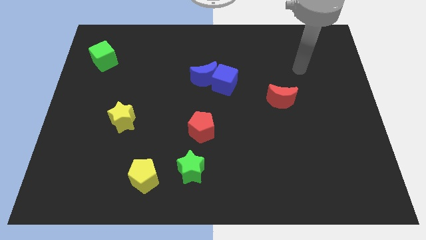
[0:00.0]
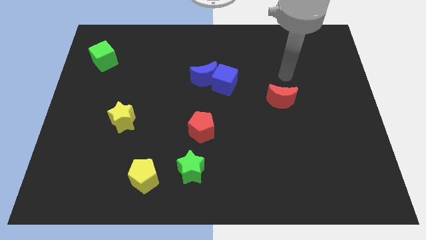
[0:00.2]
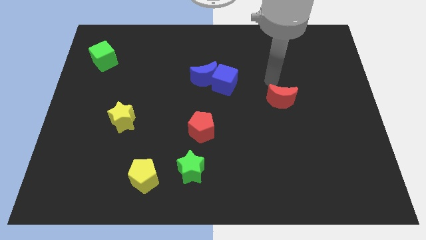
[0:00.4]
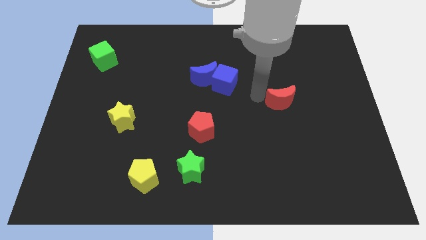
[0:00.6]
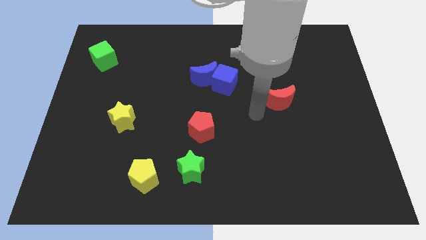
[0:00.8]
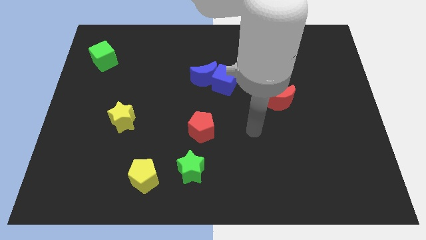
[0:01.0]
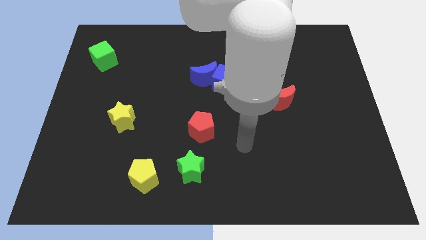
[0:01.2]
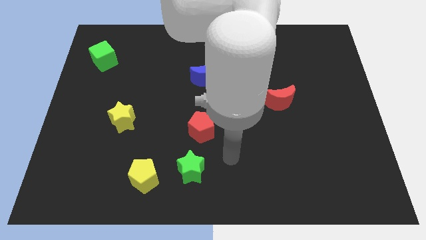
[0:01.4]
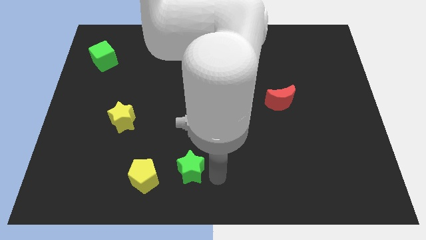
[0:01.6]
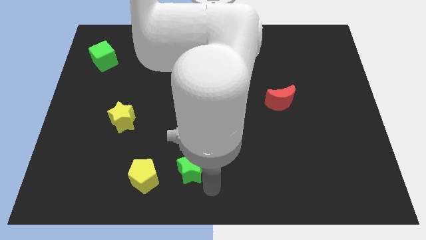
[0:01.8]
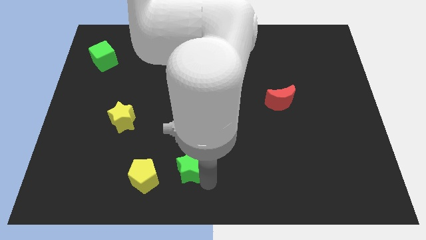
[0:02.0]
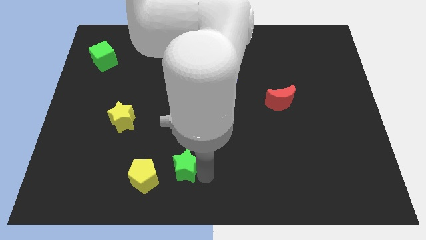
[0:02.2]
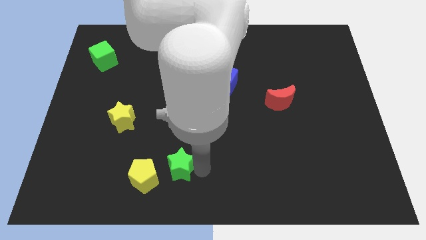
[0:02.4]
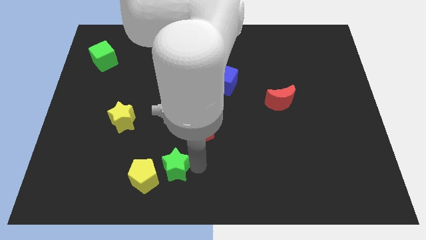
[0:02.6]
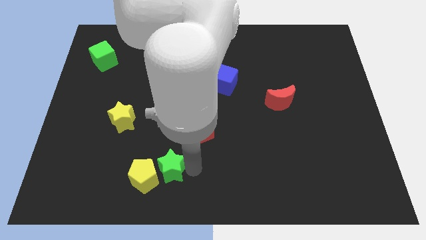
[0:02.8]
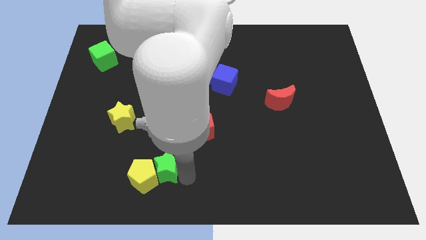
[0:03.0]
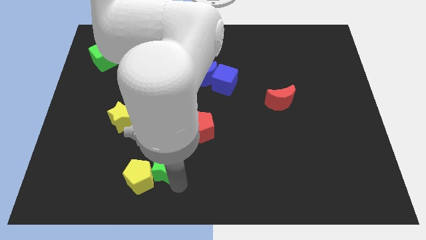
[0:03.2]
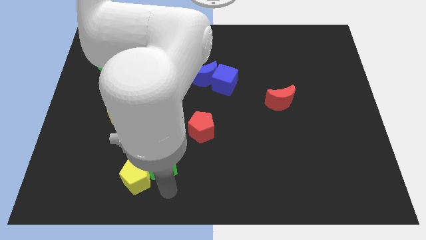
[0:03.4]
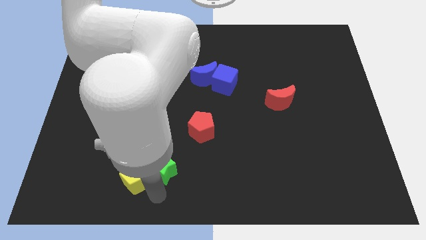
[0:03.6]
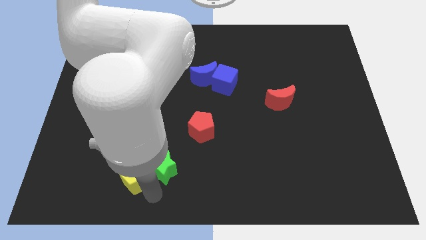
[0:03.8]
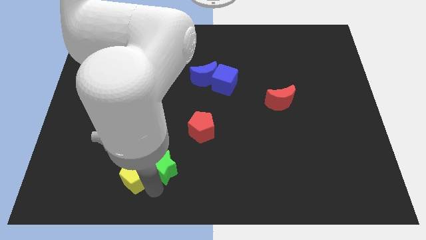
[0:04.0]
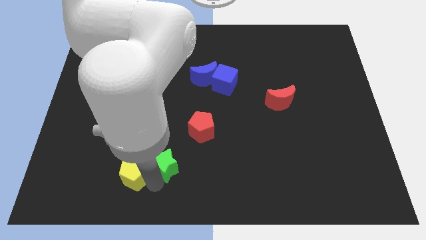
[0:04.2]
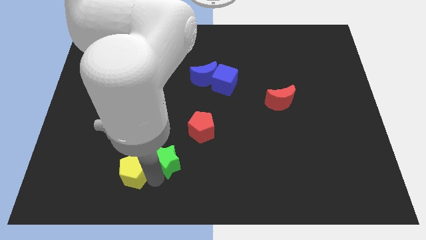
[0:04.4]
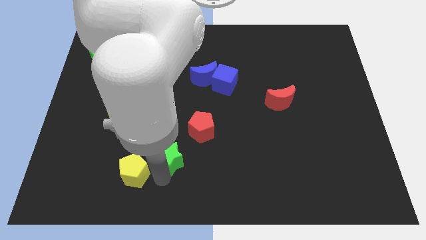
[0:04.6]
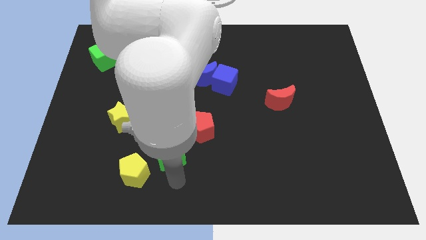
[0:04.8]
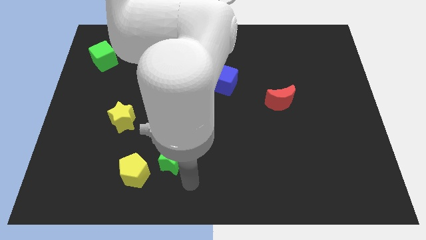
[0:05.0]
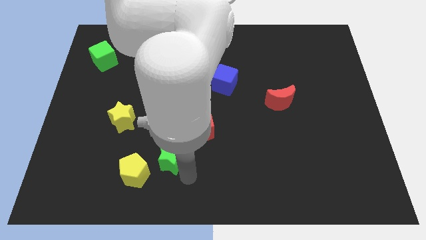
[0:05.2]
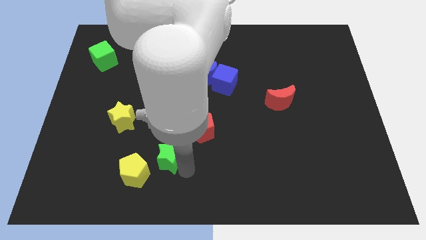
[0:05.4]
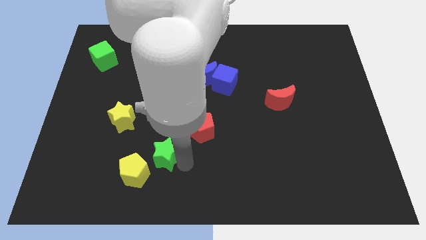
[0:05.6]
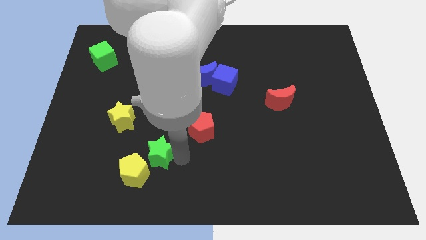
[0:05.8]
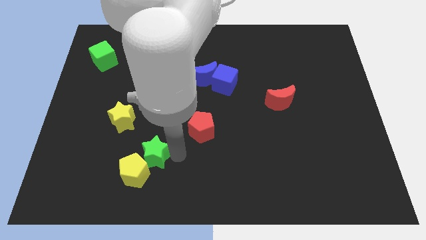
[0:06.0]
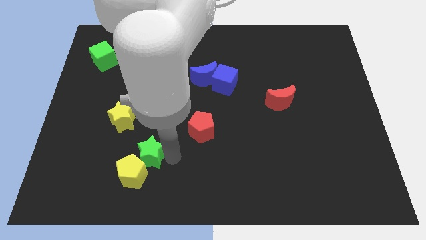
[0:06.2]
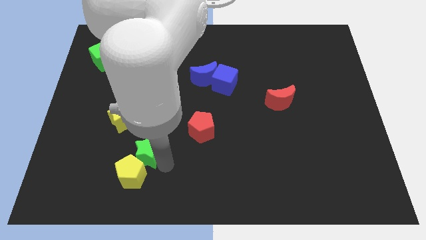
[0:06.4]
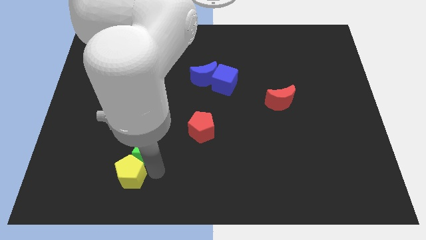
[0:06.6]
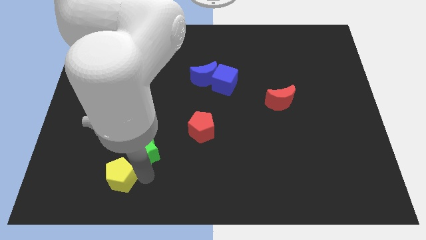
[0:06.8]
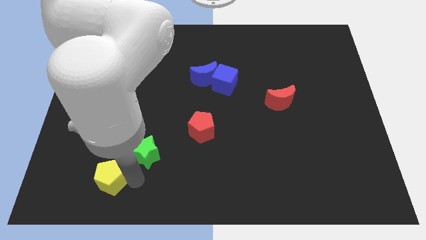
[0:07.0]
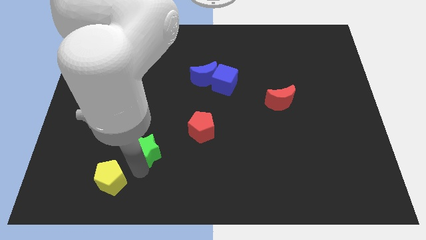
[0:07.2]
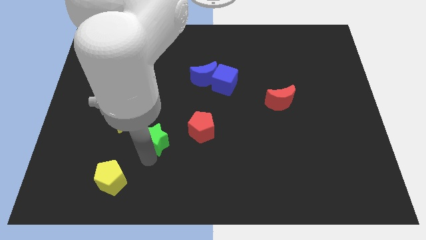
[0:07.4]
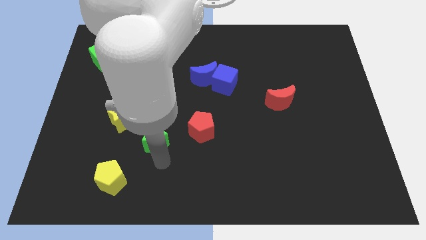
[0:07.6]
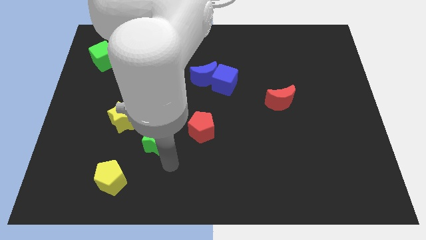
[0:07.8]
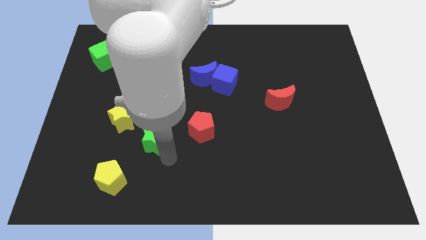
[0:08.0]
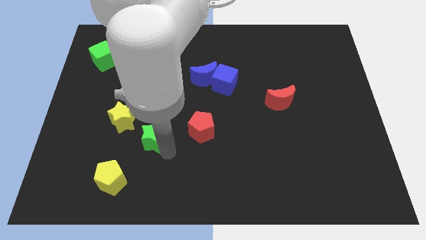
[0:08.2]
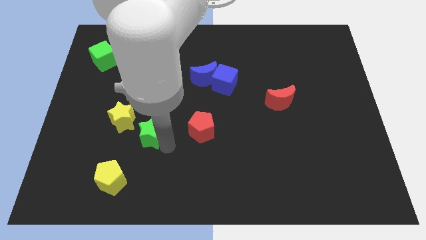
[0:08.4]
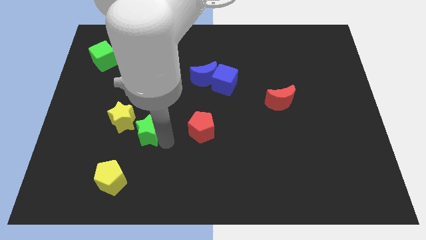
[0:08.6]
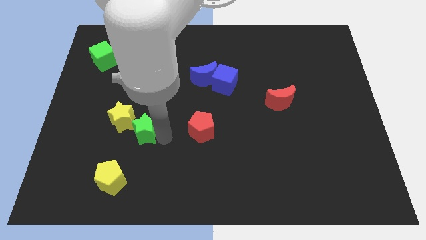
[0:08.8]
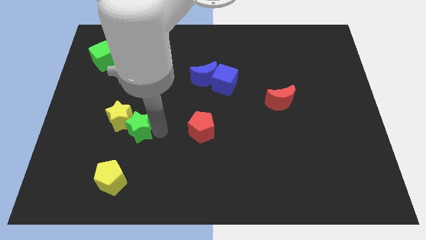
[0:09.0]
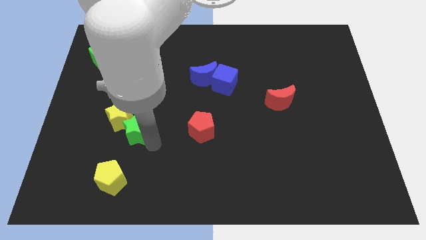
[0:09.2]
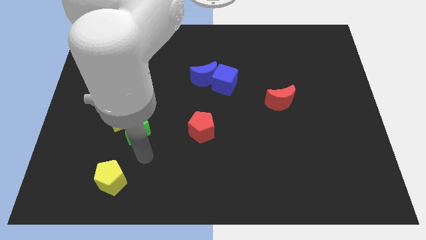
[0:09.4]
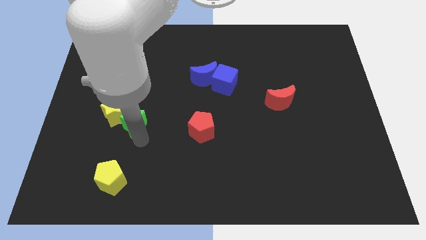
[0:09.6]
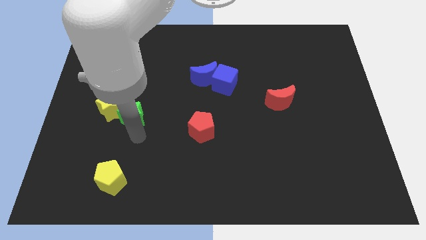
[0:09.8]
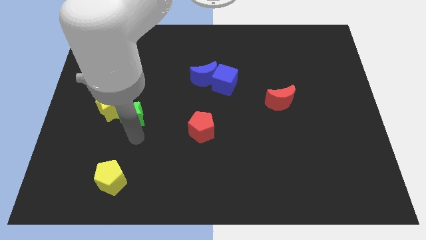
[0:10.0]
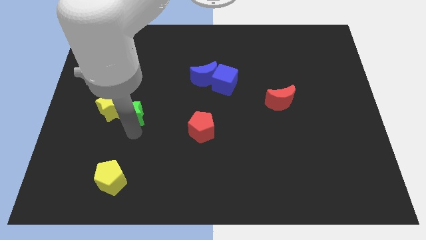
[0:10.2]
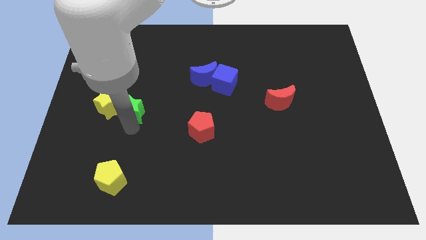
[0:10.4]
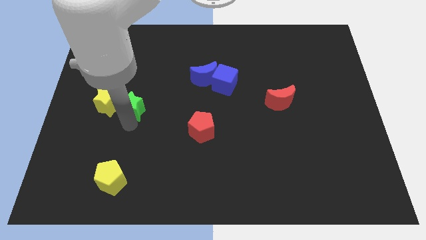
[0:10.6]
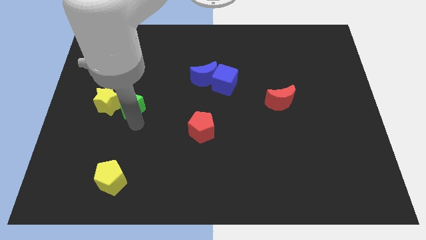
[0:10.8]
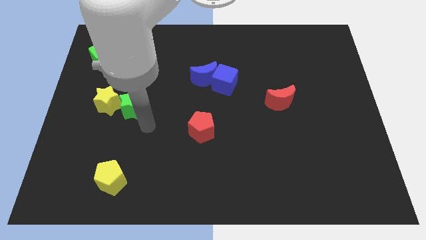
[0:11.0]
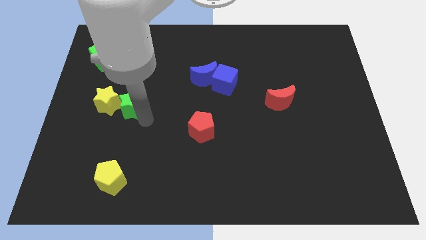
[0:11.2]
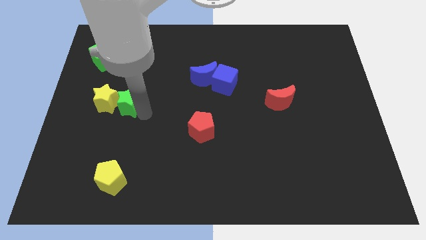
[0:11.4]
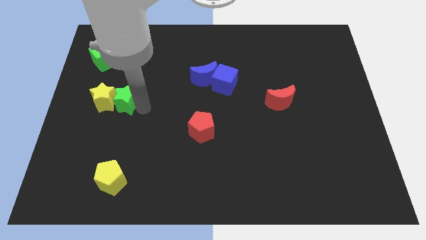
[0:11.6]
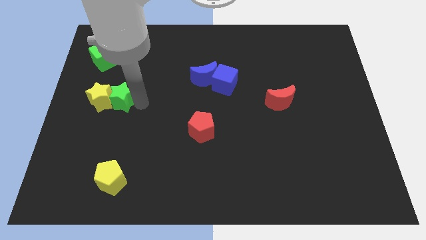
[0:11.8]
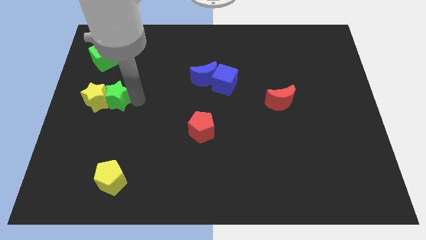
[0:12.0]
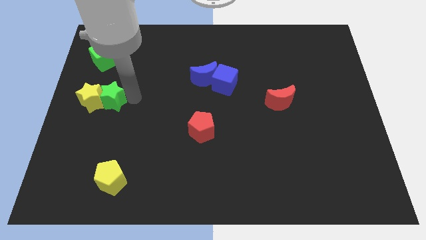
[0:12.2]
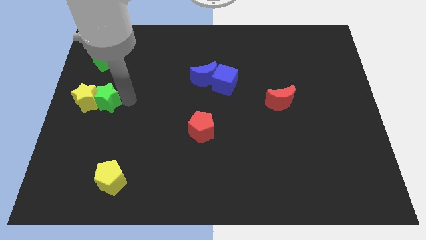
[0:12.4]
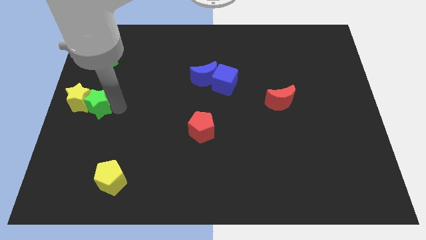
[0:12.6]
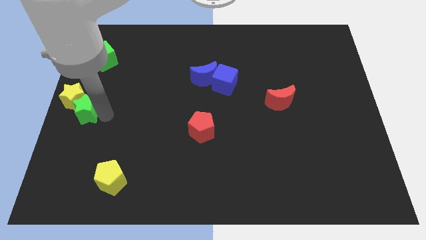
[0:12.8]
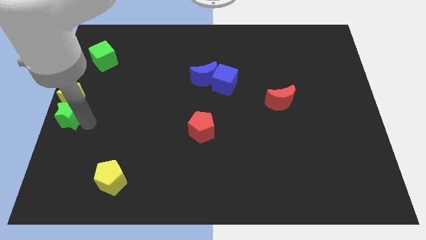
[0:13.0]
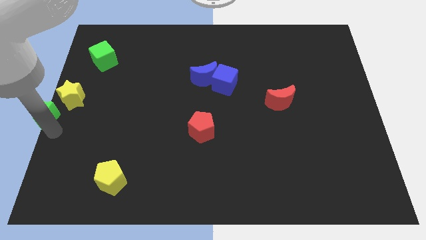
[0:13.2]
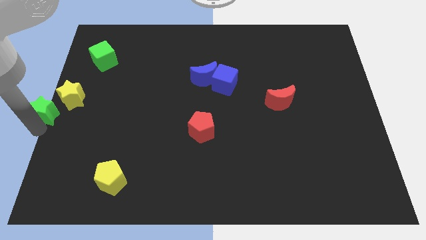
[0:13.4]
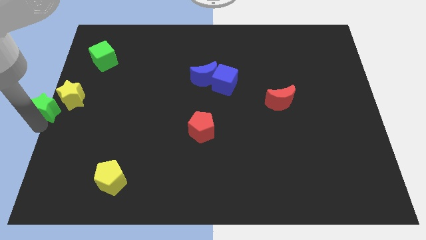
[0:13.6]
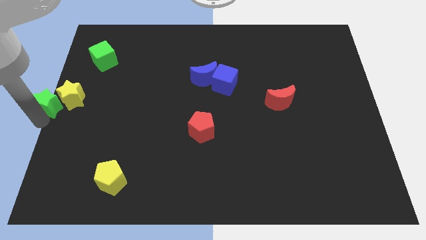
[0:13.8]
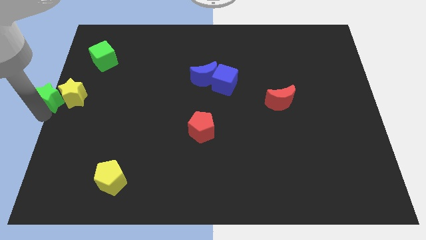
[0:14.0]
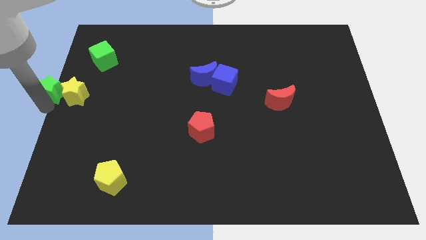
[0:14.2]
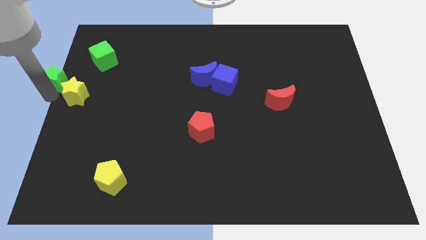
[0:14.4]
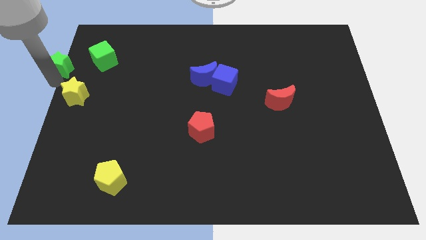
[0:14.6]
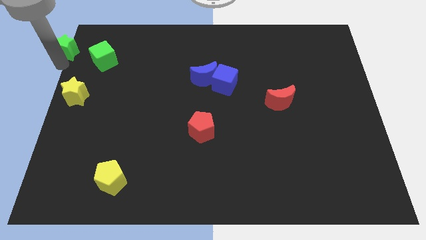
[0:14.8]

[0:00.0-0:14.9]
move the green star to the top left of the board
